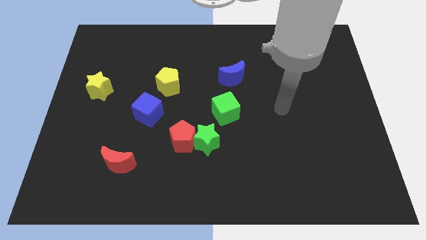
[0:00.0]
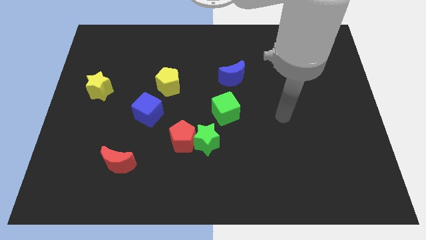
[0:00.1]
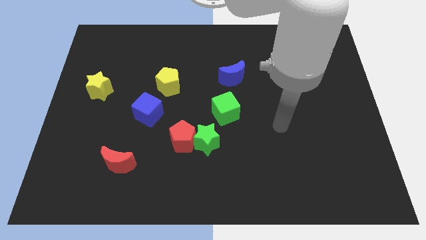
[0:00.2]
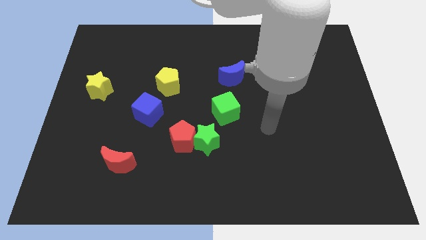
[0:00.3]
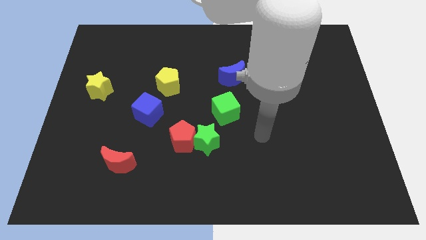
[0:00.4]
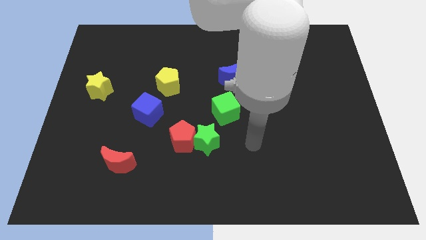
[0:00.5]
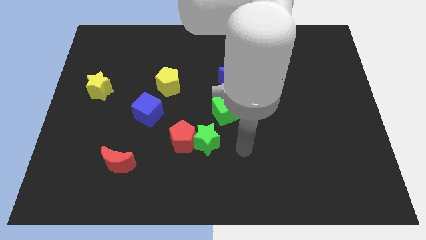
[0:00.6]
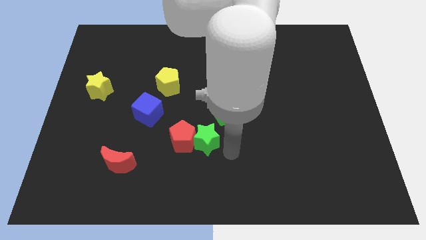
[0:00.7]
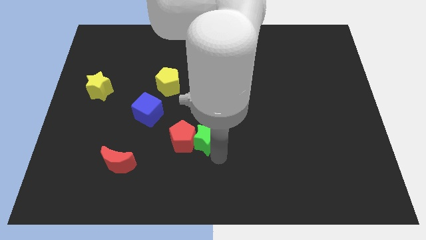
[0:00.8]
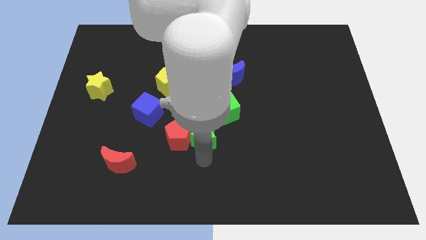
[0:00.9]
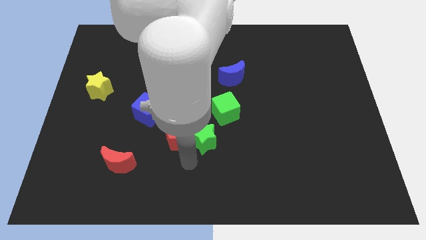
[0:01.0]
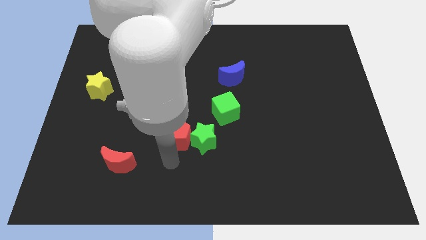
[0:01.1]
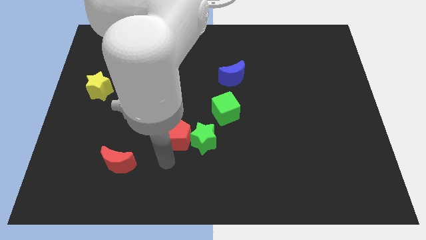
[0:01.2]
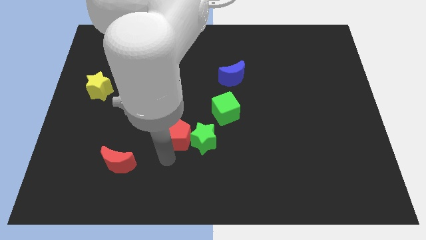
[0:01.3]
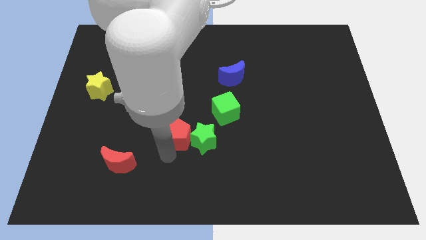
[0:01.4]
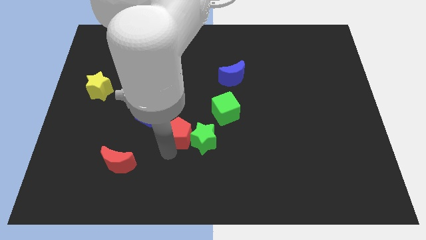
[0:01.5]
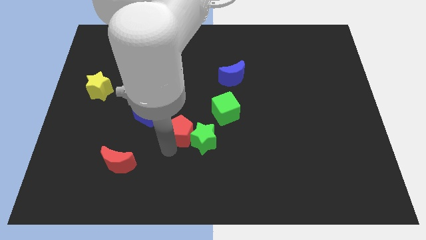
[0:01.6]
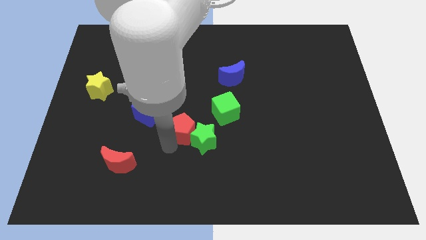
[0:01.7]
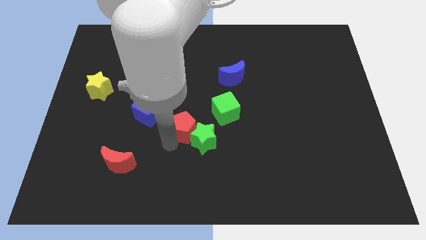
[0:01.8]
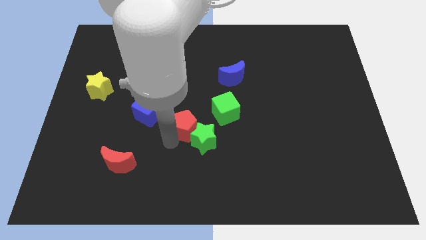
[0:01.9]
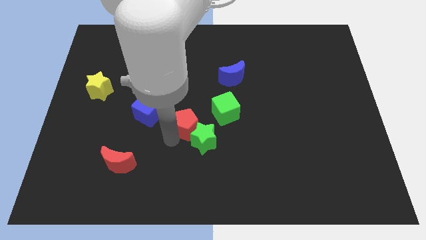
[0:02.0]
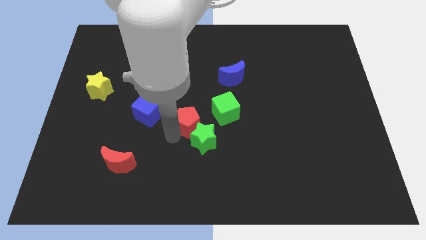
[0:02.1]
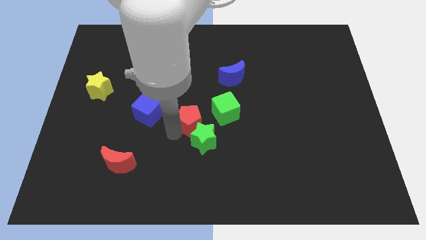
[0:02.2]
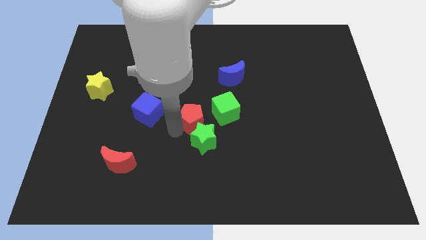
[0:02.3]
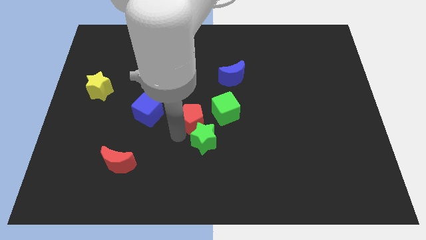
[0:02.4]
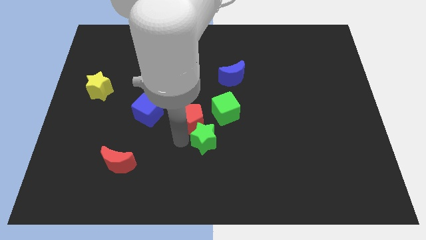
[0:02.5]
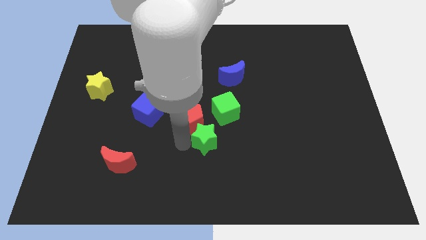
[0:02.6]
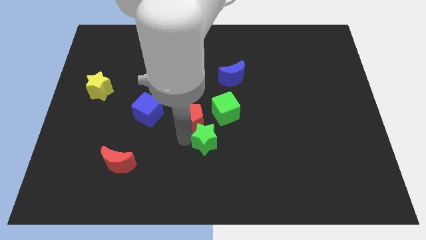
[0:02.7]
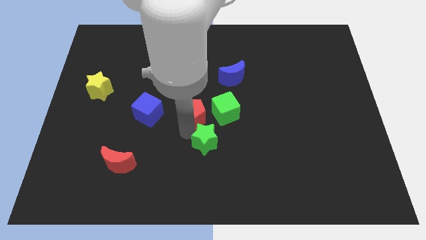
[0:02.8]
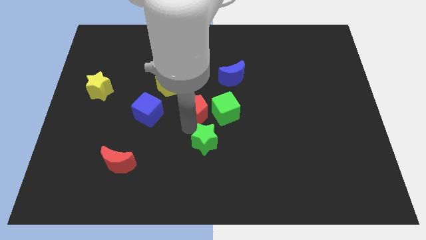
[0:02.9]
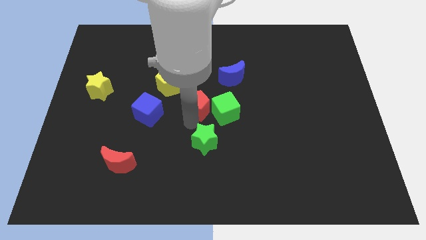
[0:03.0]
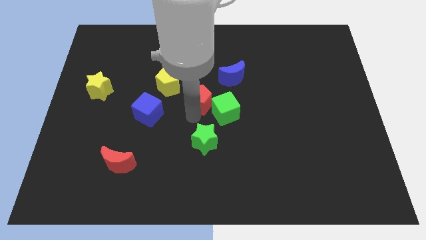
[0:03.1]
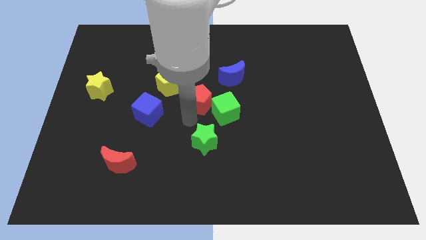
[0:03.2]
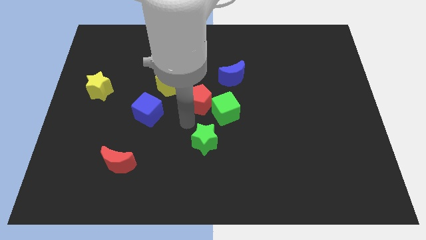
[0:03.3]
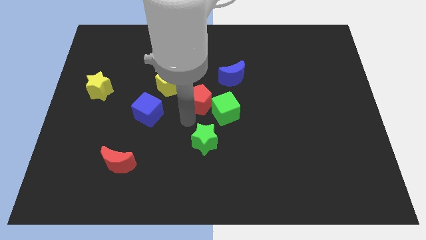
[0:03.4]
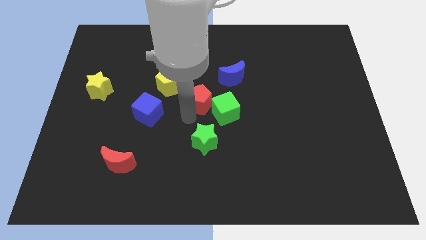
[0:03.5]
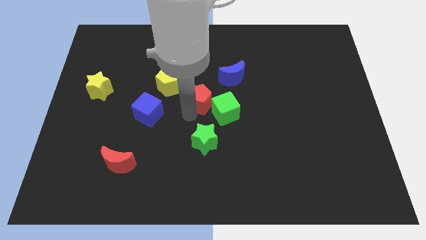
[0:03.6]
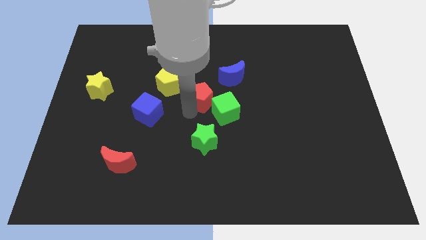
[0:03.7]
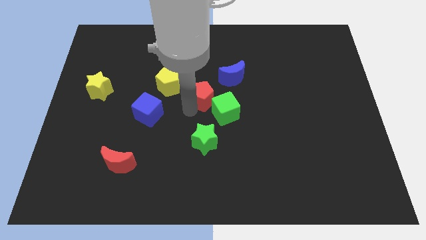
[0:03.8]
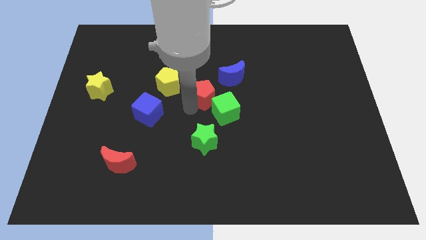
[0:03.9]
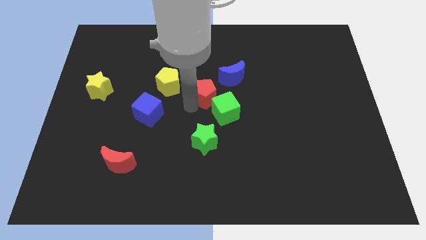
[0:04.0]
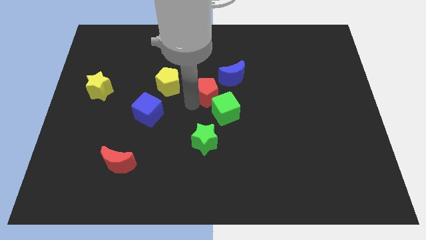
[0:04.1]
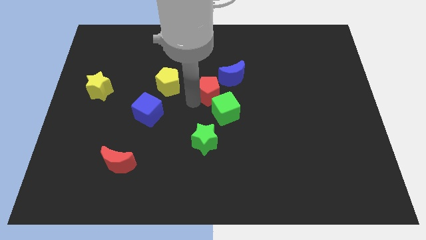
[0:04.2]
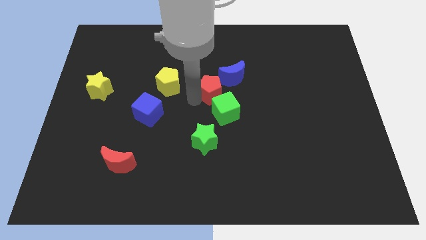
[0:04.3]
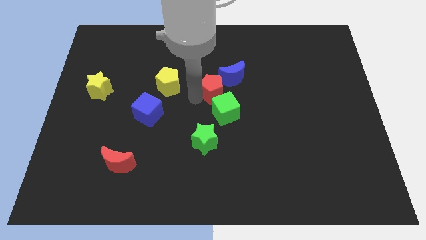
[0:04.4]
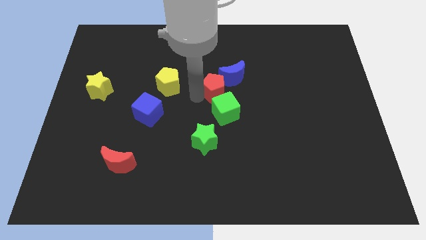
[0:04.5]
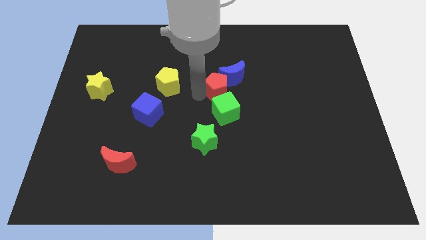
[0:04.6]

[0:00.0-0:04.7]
put the red pentagon to the blue moon

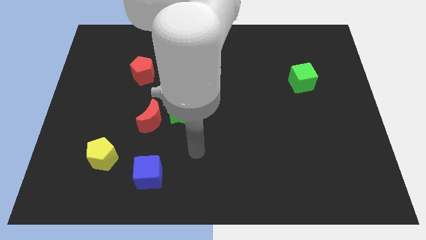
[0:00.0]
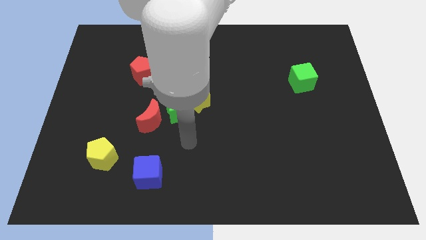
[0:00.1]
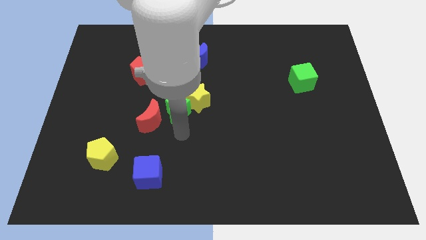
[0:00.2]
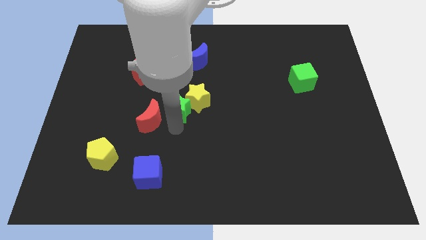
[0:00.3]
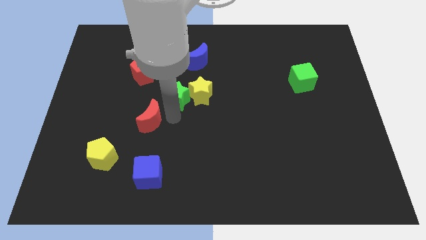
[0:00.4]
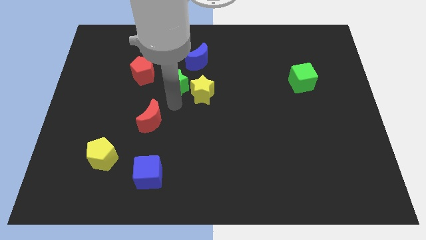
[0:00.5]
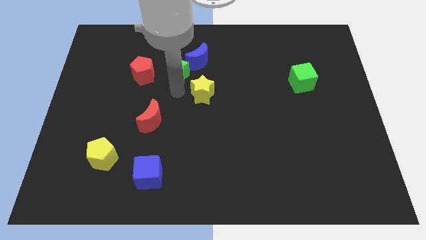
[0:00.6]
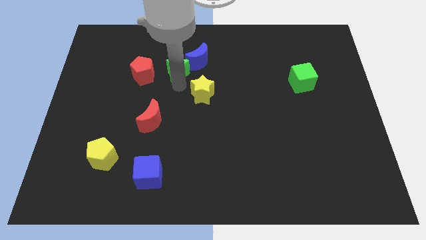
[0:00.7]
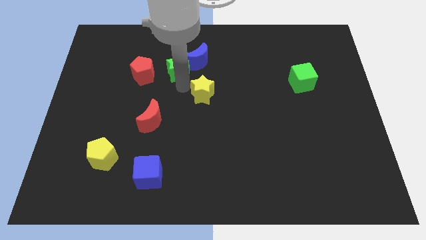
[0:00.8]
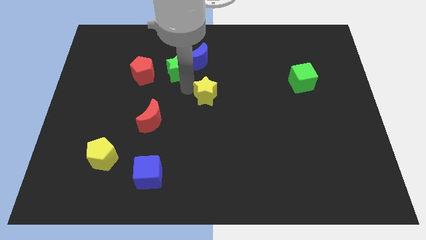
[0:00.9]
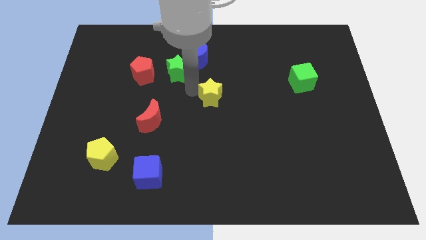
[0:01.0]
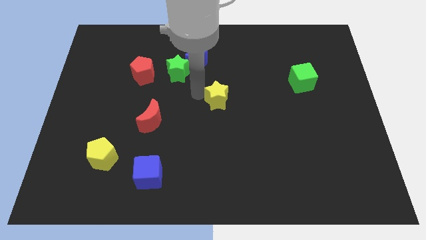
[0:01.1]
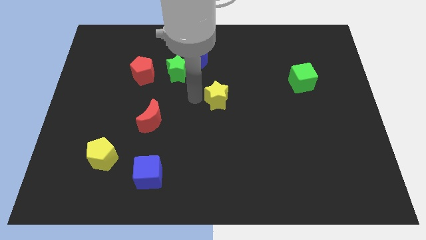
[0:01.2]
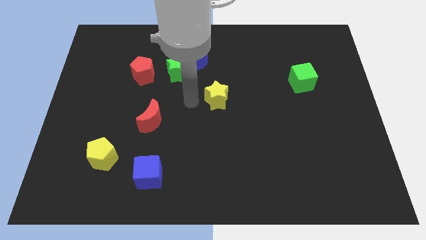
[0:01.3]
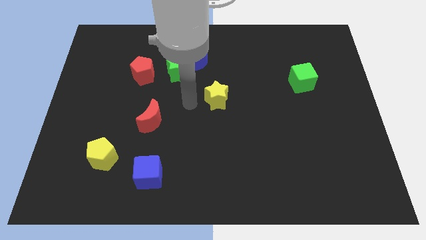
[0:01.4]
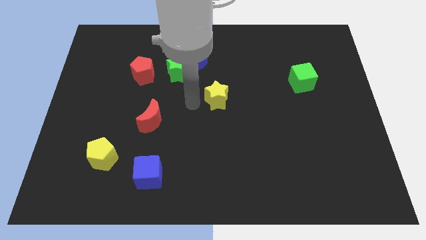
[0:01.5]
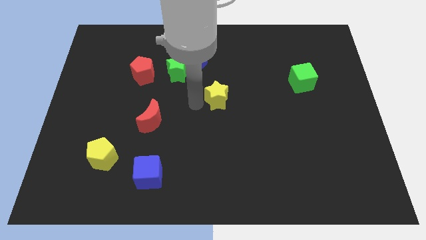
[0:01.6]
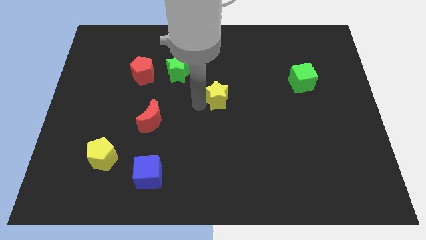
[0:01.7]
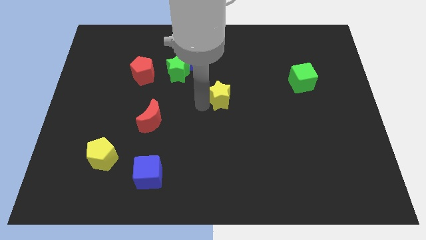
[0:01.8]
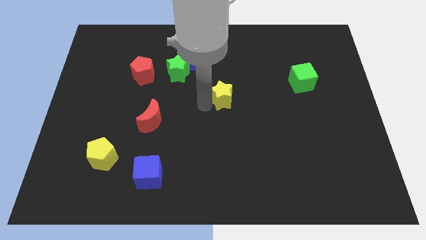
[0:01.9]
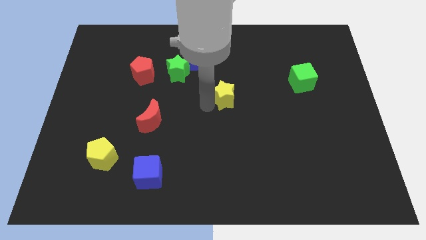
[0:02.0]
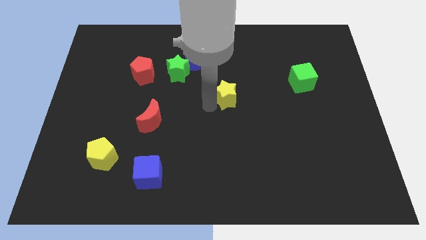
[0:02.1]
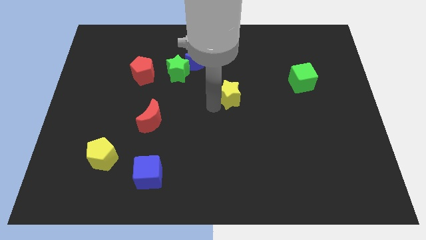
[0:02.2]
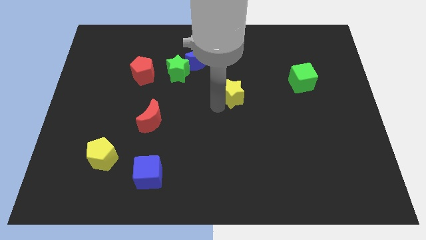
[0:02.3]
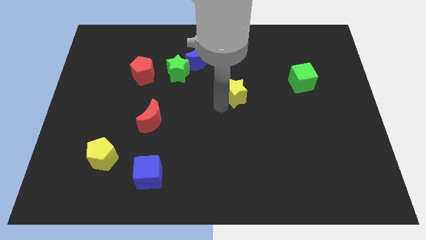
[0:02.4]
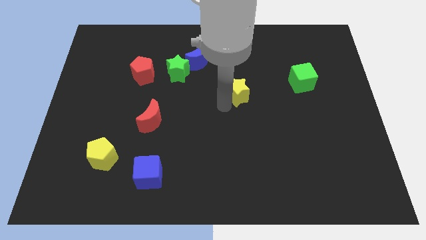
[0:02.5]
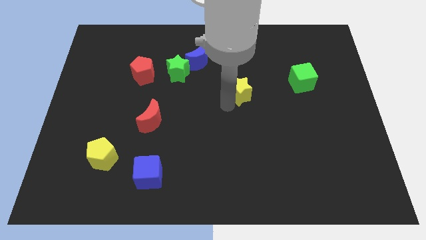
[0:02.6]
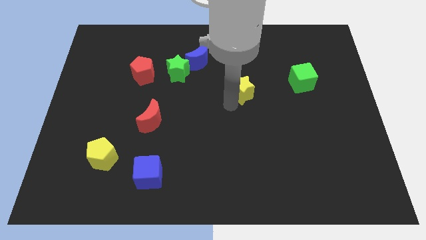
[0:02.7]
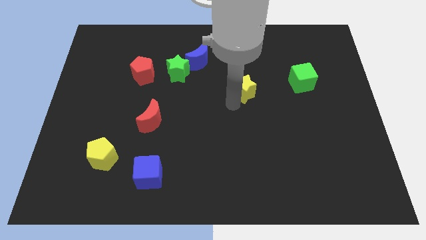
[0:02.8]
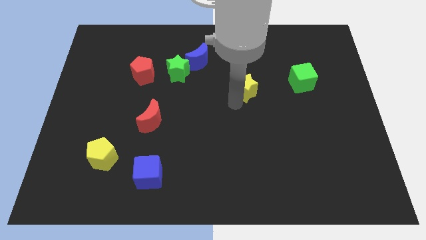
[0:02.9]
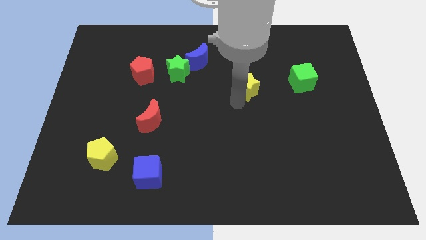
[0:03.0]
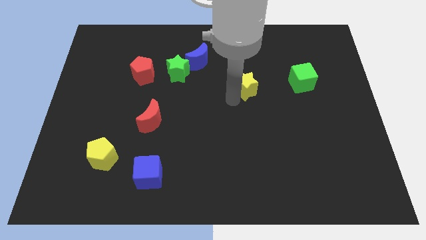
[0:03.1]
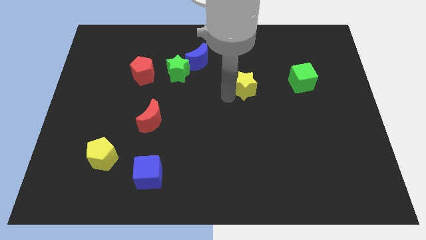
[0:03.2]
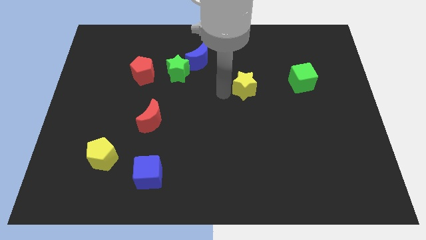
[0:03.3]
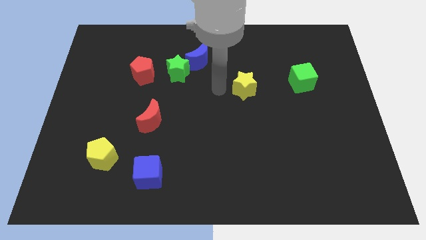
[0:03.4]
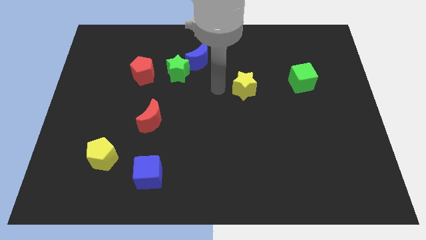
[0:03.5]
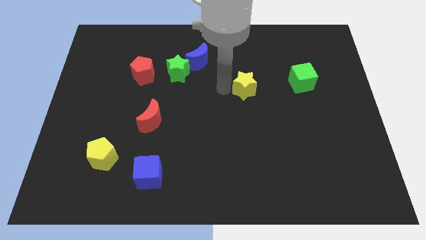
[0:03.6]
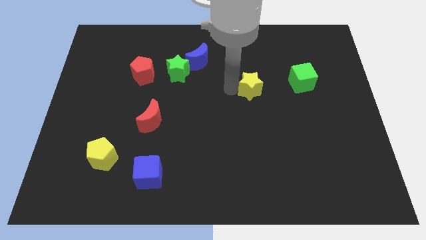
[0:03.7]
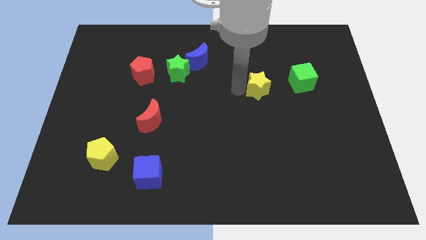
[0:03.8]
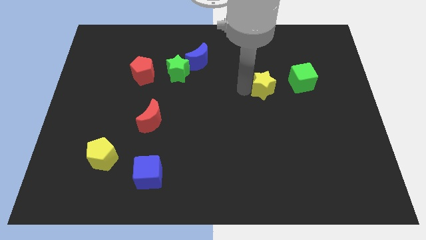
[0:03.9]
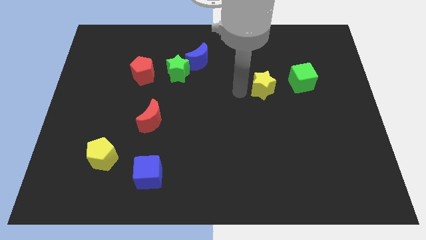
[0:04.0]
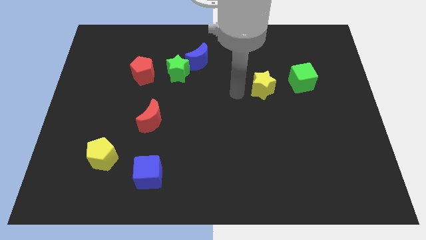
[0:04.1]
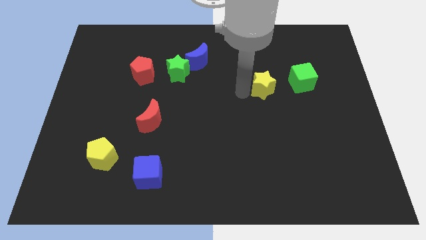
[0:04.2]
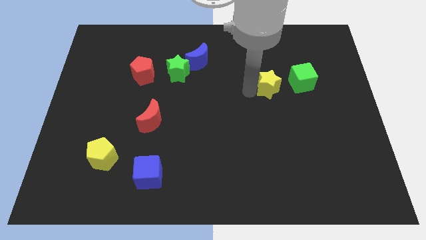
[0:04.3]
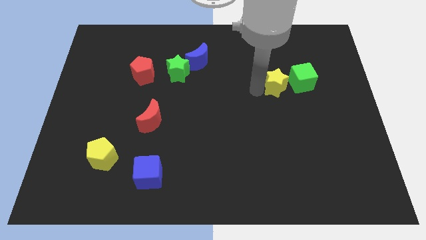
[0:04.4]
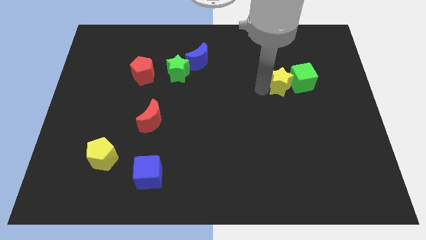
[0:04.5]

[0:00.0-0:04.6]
move the yellow star to the green cube
